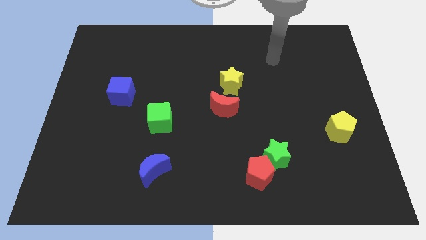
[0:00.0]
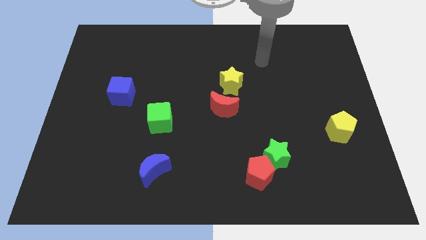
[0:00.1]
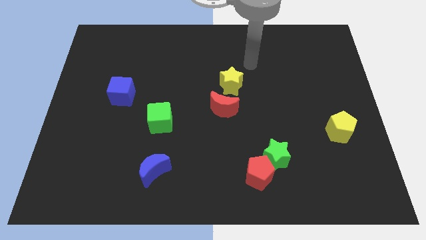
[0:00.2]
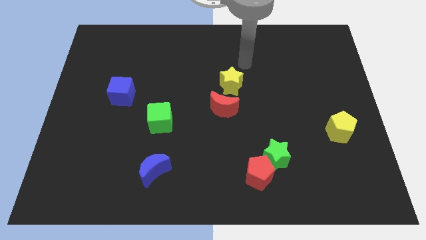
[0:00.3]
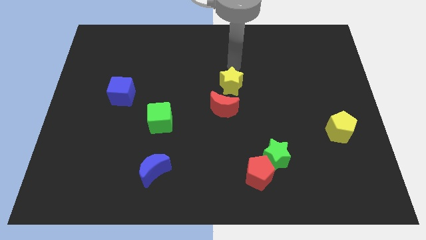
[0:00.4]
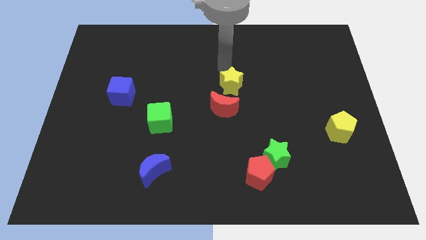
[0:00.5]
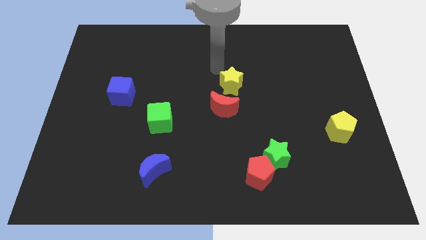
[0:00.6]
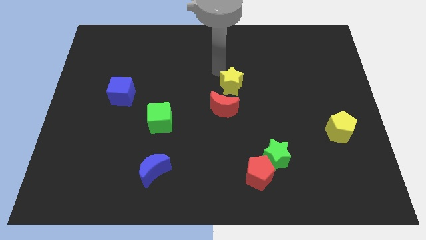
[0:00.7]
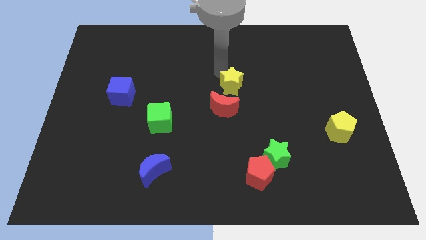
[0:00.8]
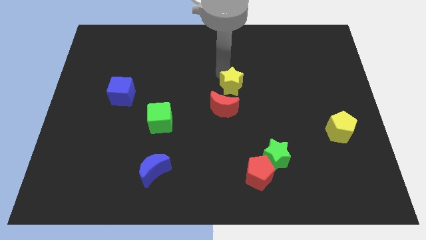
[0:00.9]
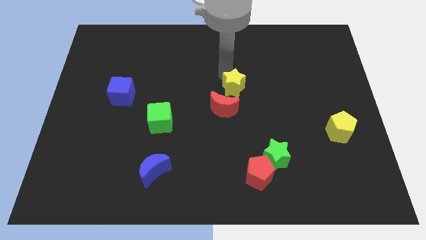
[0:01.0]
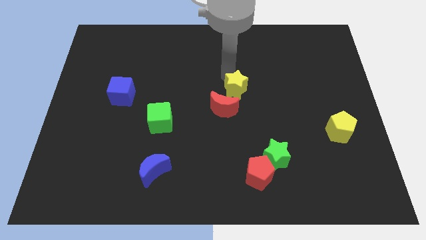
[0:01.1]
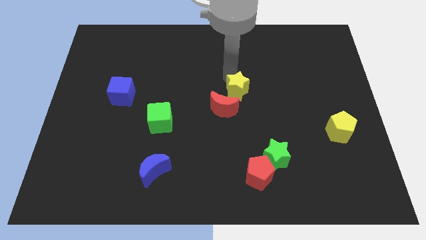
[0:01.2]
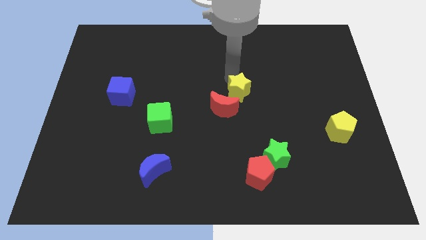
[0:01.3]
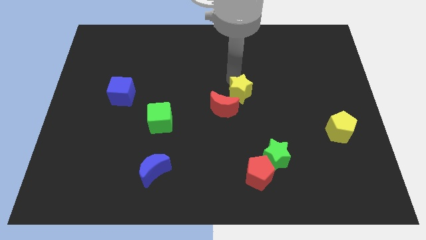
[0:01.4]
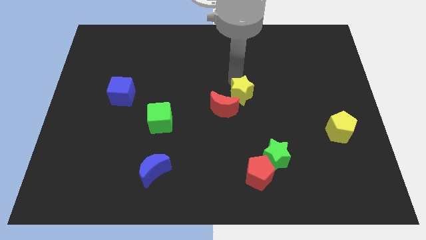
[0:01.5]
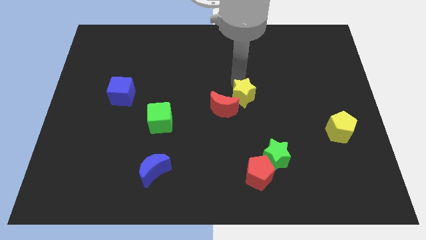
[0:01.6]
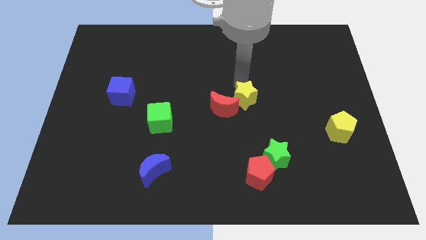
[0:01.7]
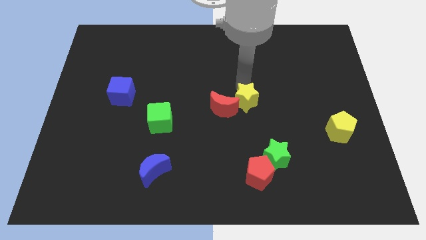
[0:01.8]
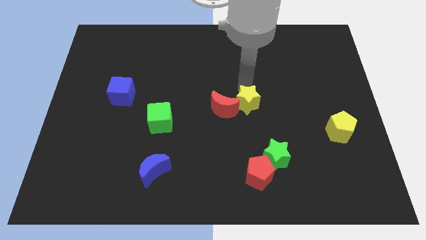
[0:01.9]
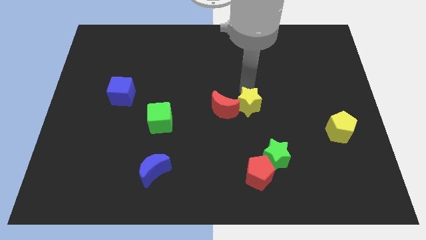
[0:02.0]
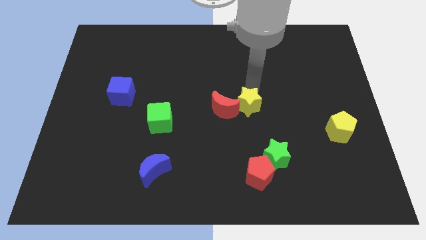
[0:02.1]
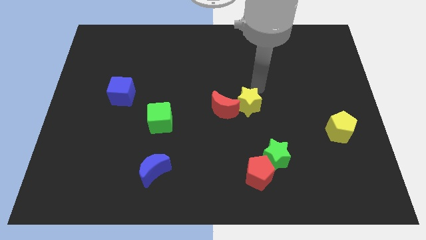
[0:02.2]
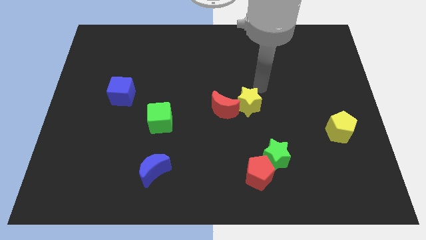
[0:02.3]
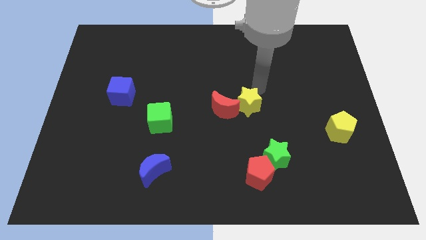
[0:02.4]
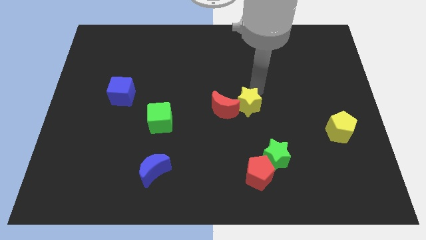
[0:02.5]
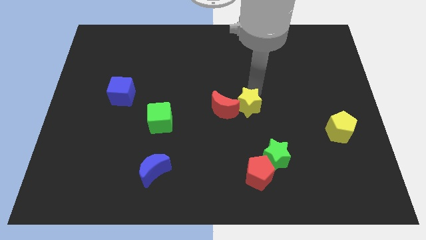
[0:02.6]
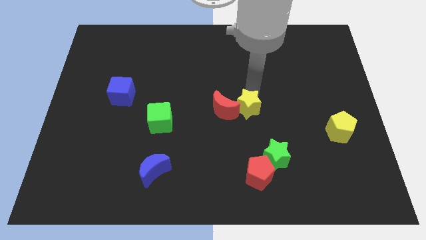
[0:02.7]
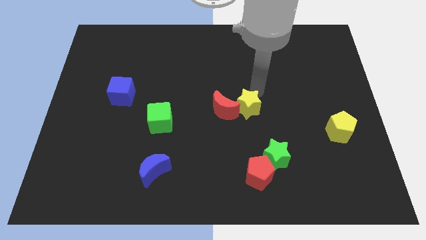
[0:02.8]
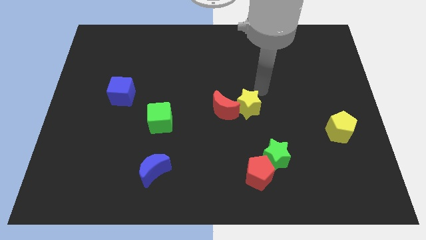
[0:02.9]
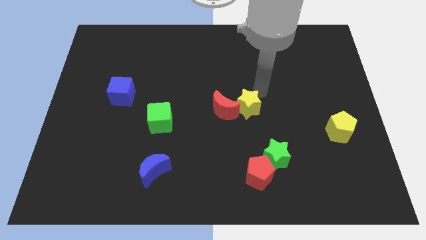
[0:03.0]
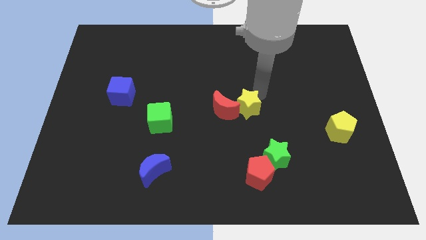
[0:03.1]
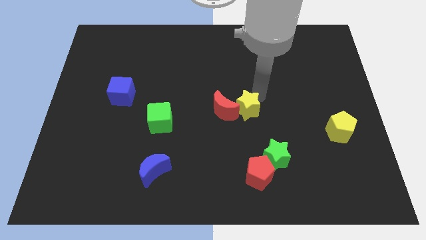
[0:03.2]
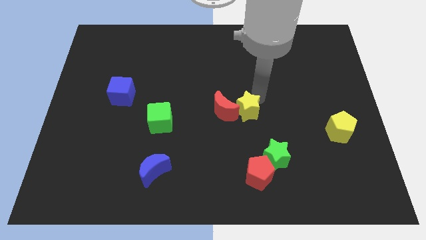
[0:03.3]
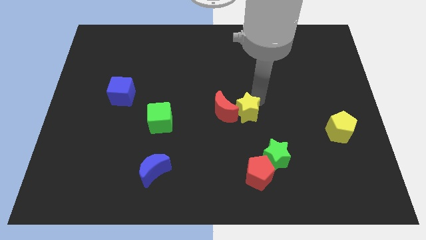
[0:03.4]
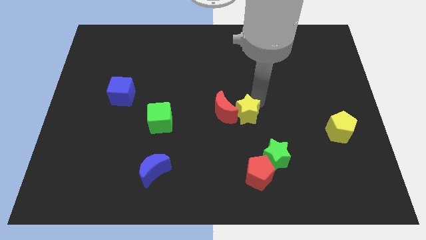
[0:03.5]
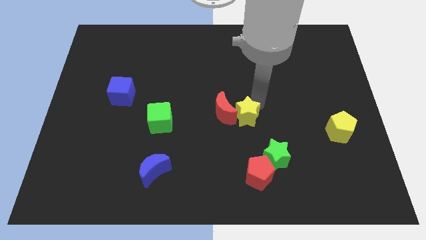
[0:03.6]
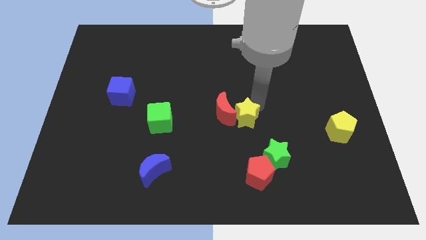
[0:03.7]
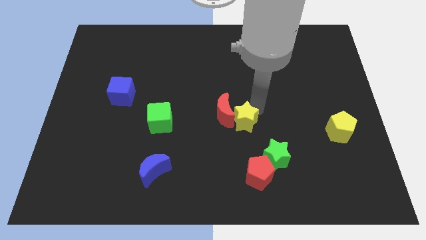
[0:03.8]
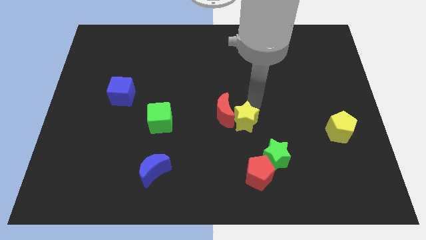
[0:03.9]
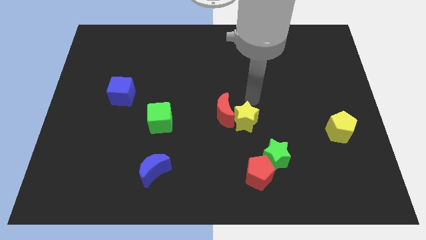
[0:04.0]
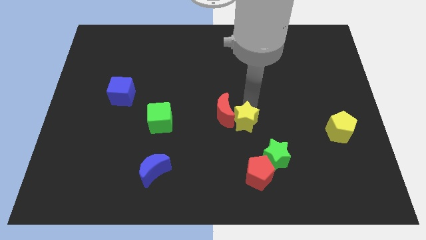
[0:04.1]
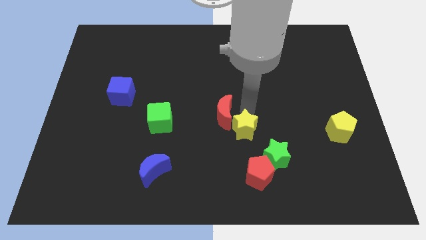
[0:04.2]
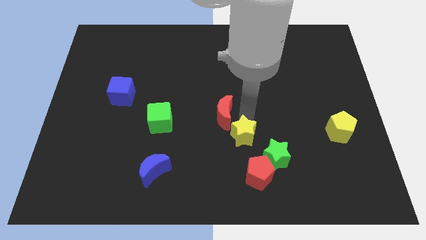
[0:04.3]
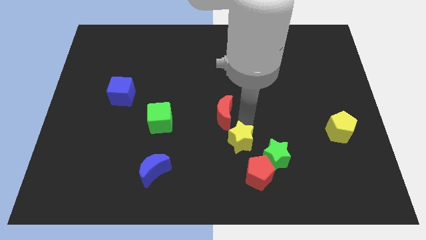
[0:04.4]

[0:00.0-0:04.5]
put the yellow star to the top left of the red pentagon

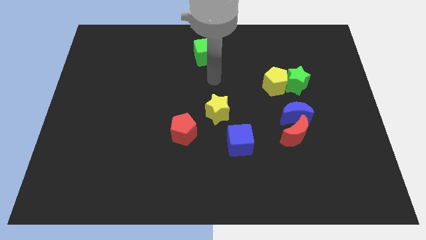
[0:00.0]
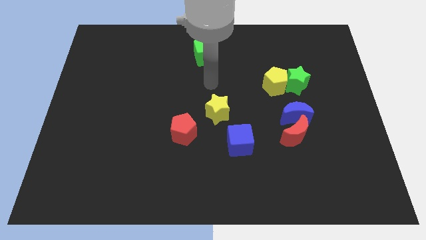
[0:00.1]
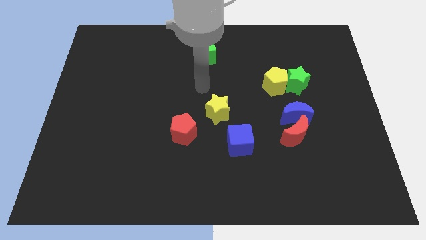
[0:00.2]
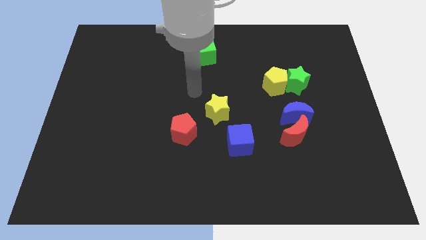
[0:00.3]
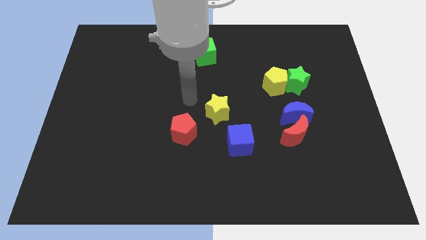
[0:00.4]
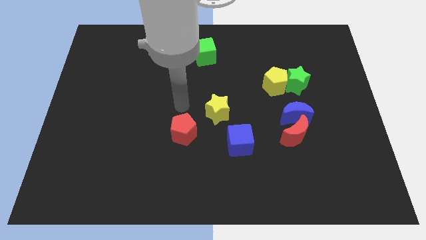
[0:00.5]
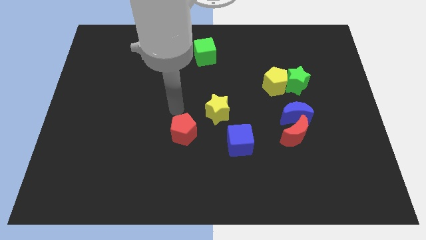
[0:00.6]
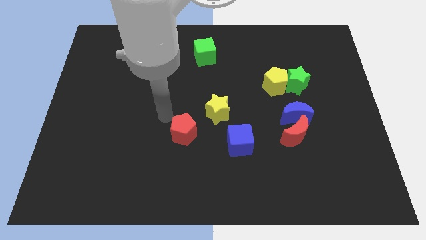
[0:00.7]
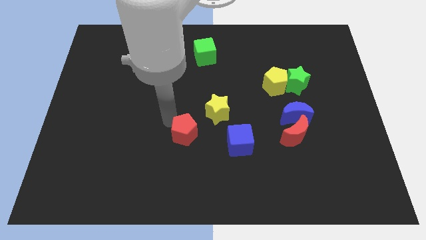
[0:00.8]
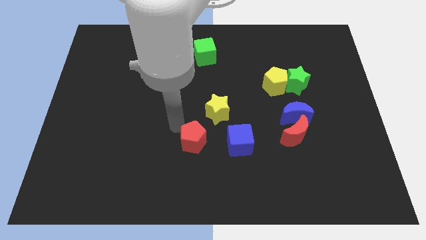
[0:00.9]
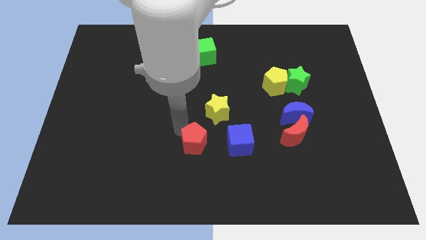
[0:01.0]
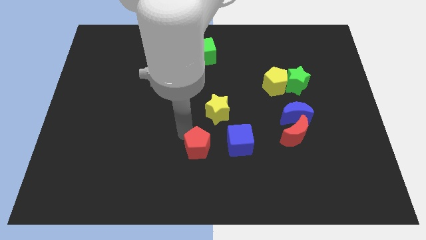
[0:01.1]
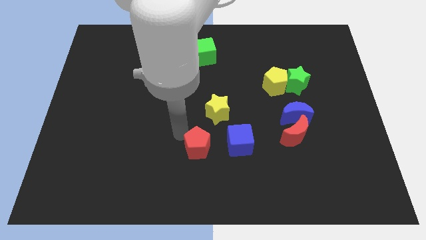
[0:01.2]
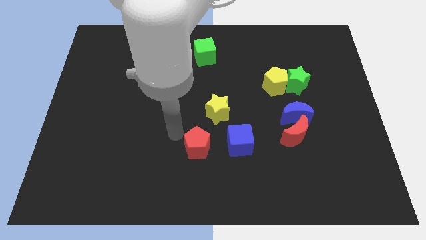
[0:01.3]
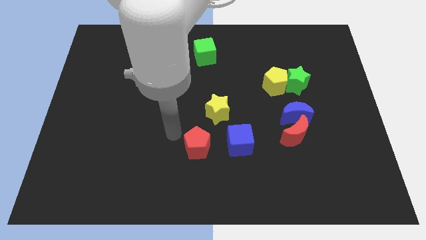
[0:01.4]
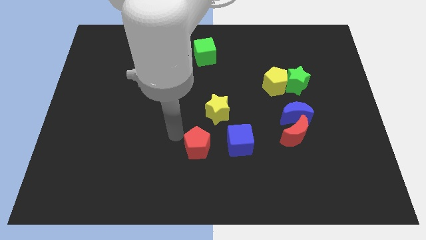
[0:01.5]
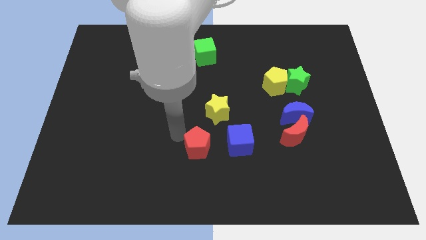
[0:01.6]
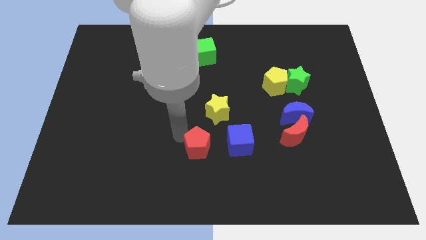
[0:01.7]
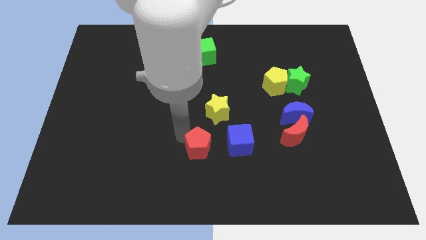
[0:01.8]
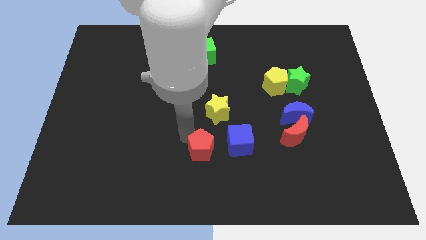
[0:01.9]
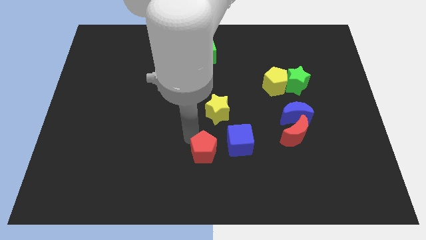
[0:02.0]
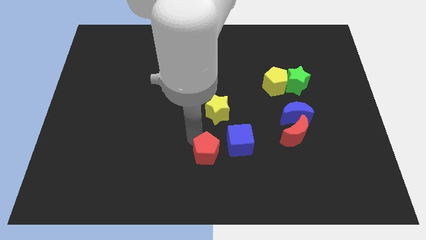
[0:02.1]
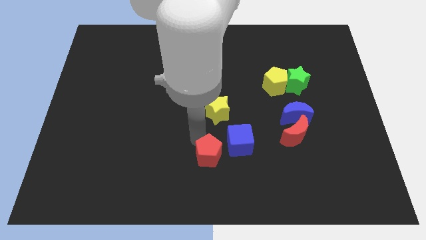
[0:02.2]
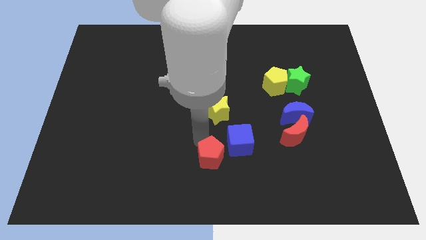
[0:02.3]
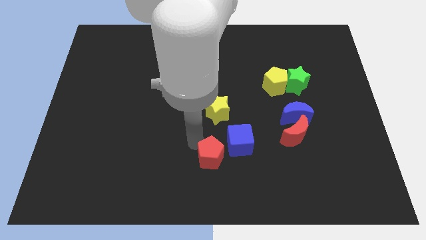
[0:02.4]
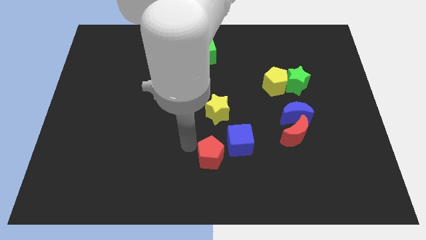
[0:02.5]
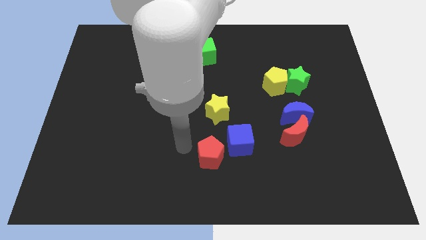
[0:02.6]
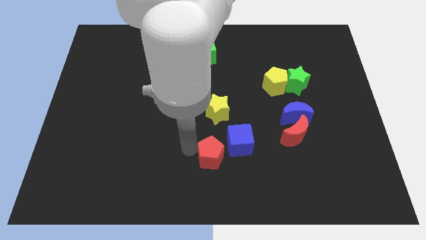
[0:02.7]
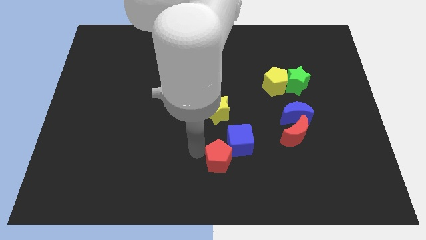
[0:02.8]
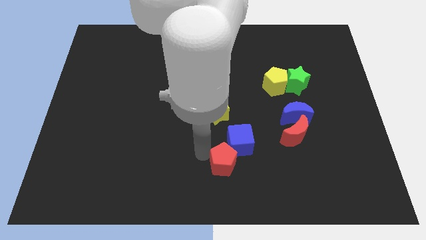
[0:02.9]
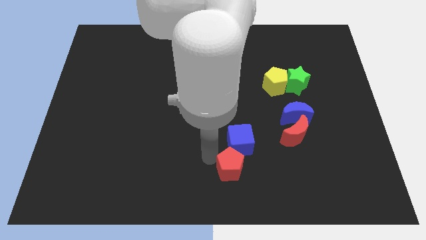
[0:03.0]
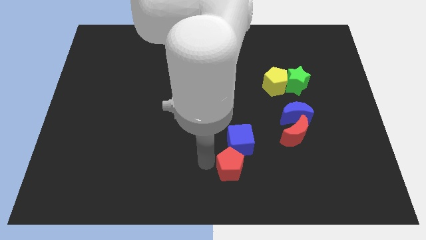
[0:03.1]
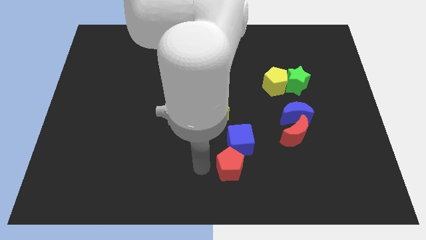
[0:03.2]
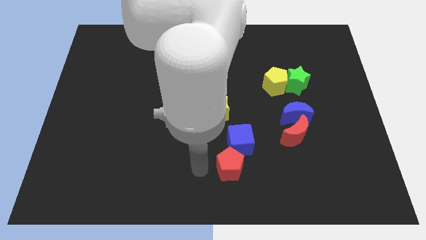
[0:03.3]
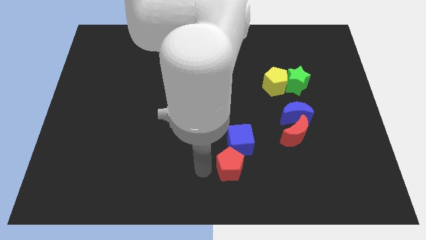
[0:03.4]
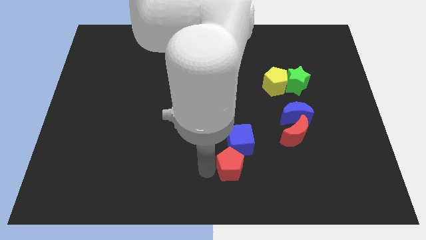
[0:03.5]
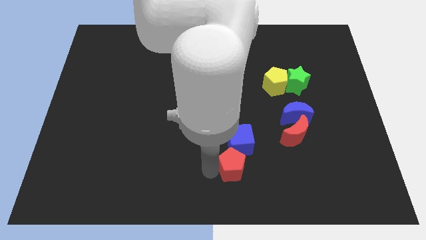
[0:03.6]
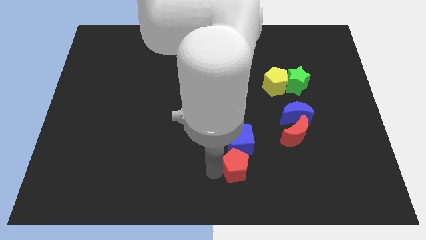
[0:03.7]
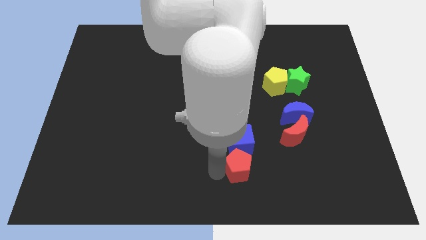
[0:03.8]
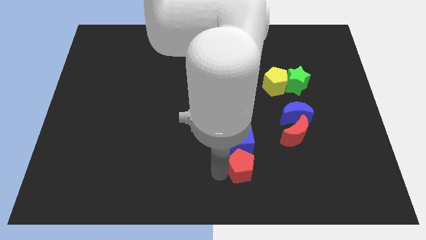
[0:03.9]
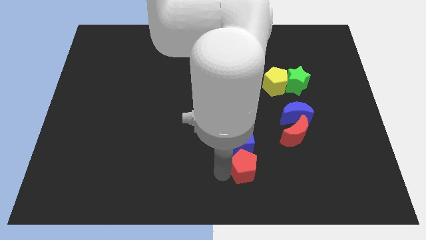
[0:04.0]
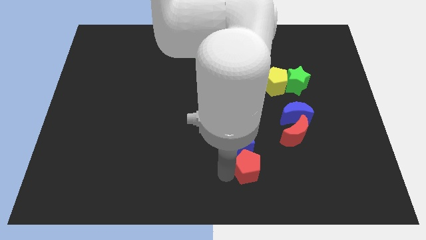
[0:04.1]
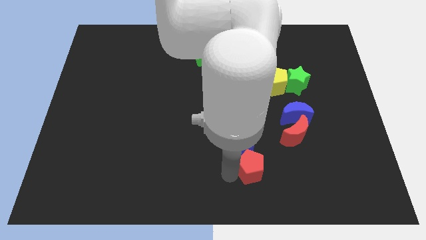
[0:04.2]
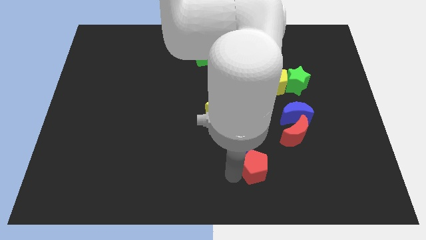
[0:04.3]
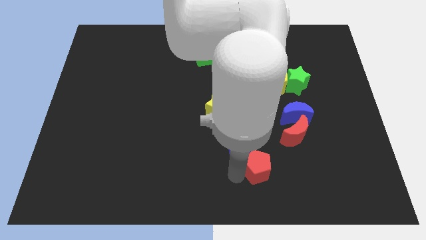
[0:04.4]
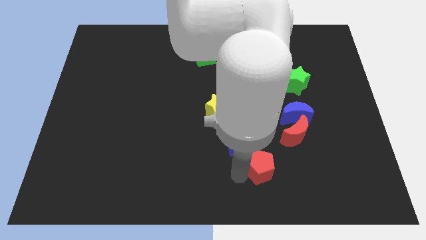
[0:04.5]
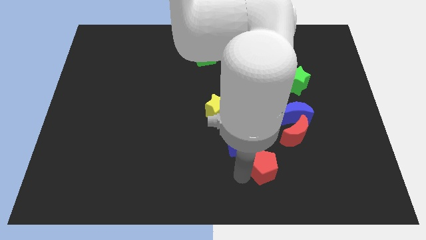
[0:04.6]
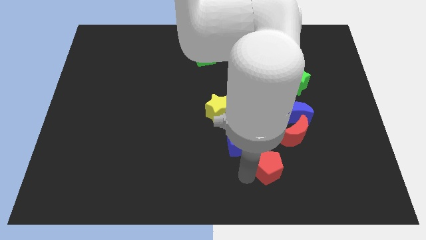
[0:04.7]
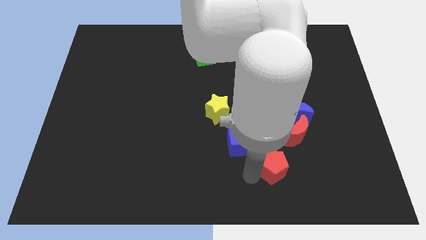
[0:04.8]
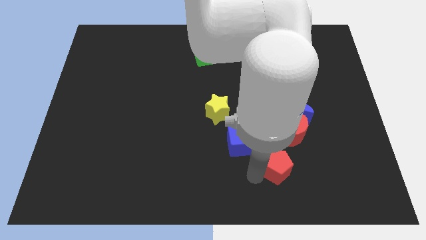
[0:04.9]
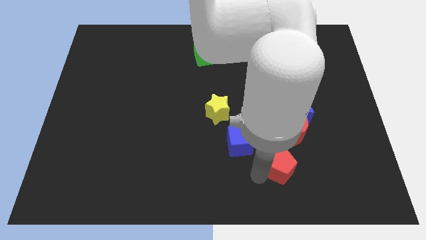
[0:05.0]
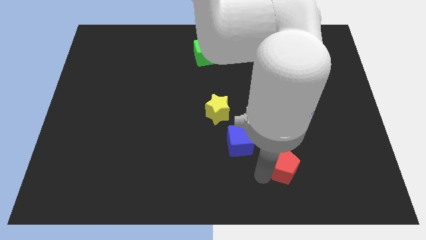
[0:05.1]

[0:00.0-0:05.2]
move the red pentagon below the blue moon
